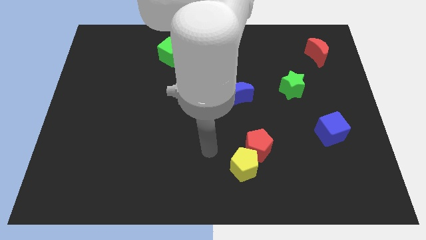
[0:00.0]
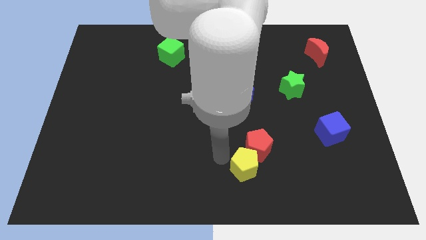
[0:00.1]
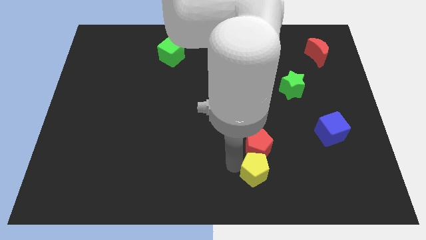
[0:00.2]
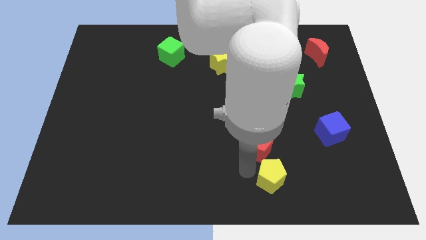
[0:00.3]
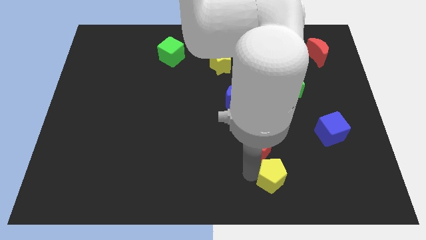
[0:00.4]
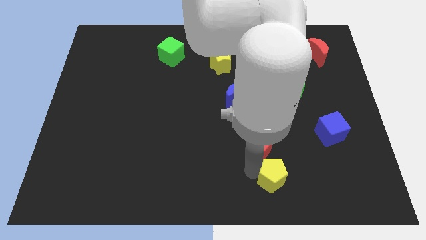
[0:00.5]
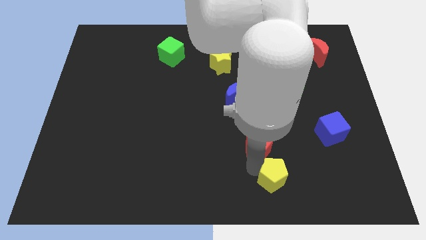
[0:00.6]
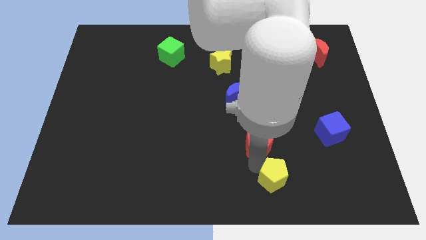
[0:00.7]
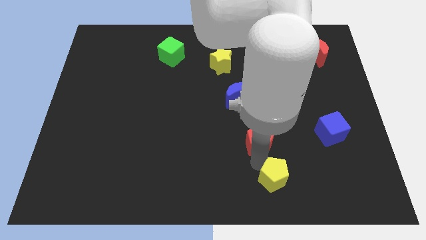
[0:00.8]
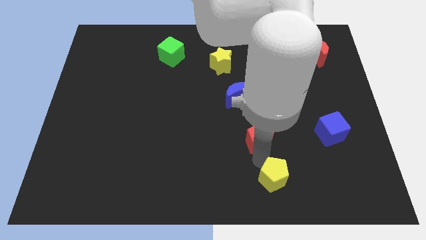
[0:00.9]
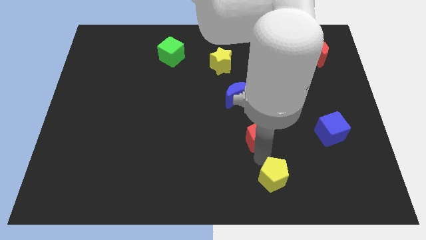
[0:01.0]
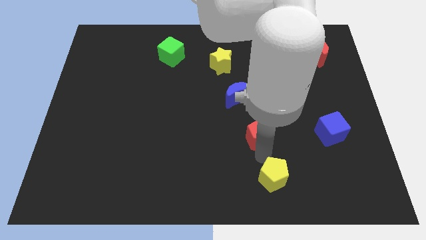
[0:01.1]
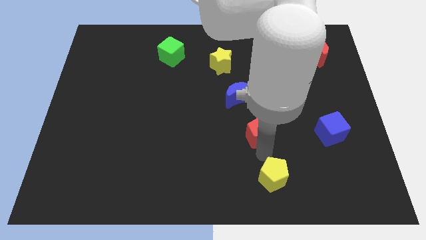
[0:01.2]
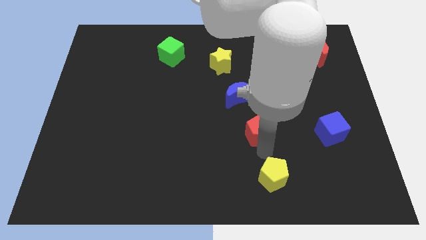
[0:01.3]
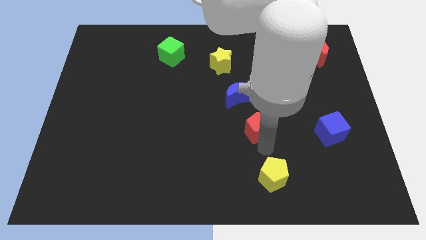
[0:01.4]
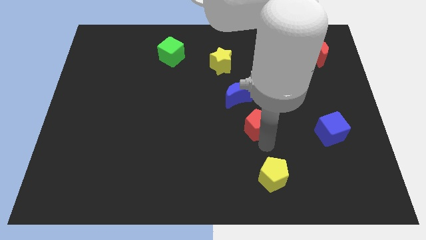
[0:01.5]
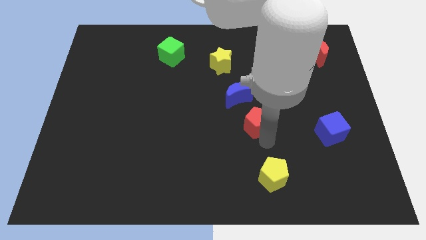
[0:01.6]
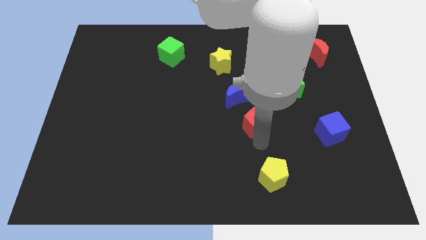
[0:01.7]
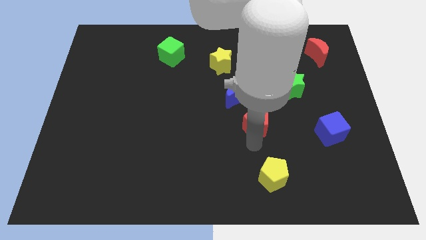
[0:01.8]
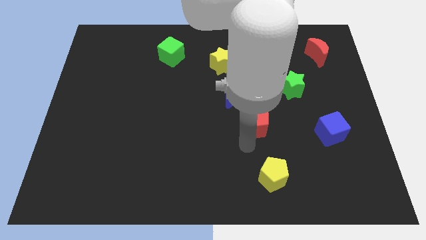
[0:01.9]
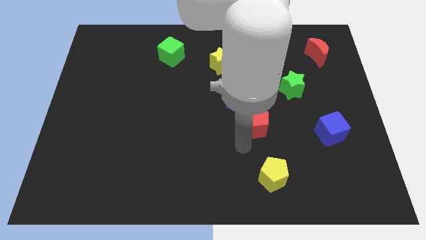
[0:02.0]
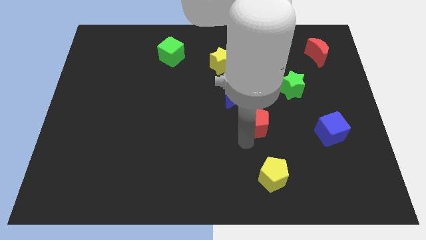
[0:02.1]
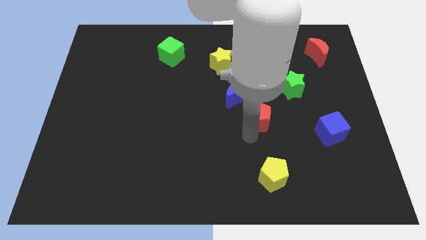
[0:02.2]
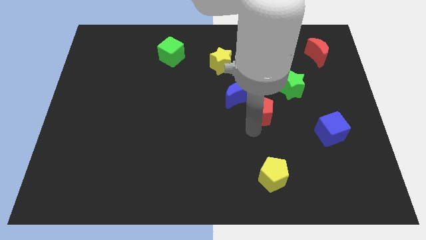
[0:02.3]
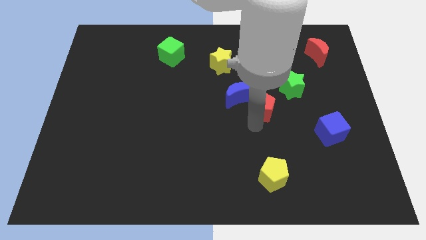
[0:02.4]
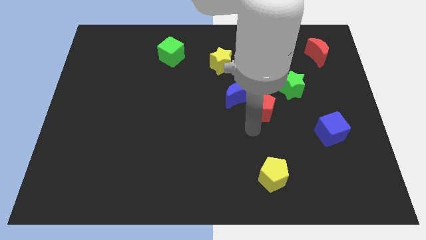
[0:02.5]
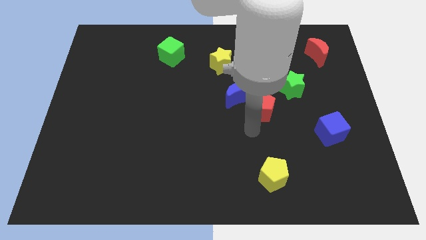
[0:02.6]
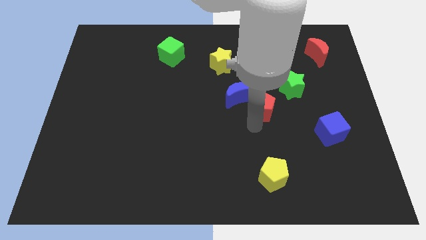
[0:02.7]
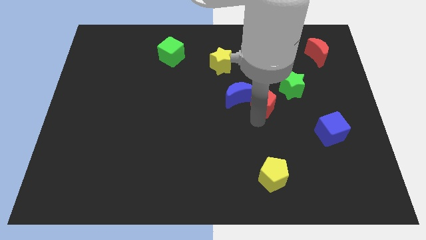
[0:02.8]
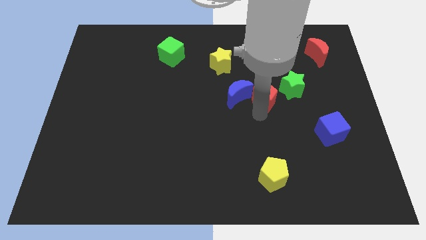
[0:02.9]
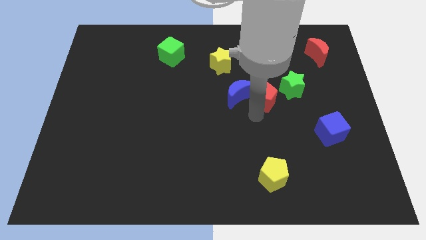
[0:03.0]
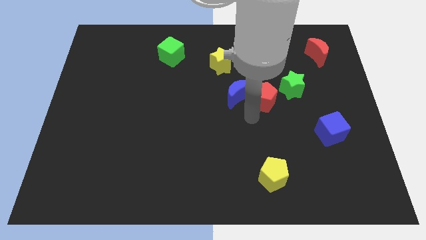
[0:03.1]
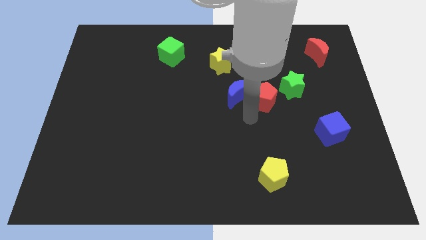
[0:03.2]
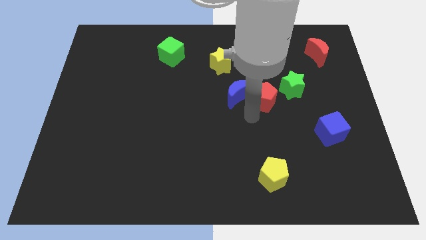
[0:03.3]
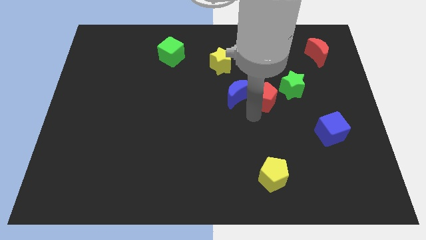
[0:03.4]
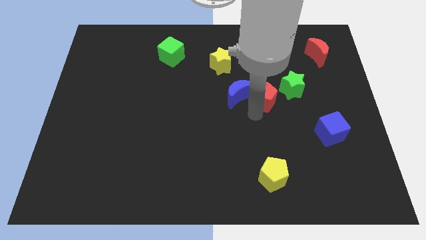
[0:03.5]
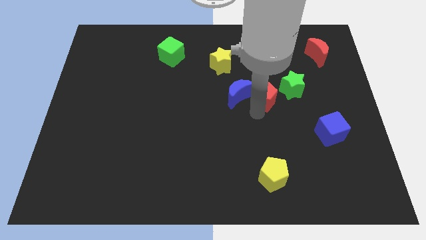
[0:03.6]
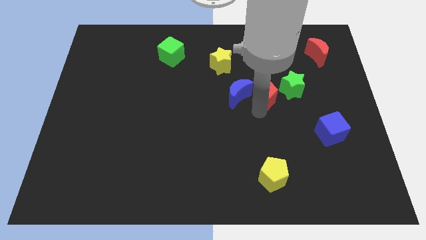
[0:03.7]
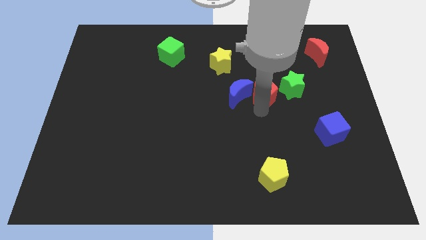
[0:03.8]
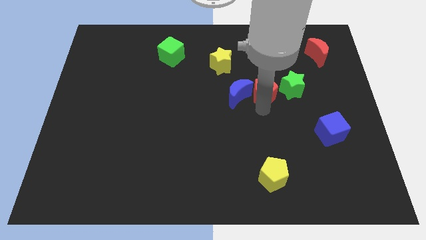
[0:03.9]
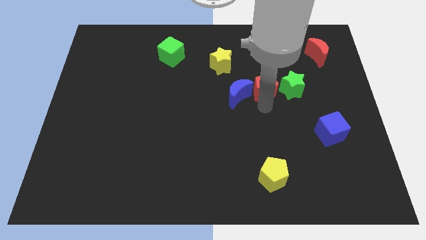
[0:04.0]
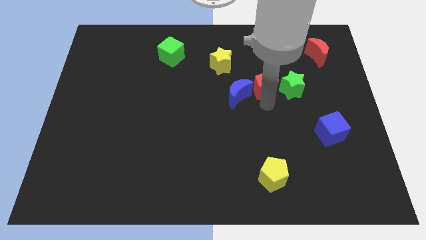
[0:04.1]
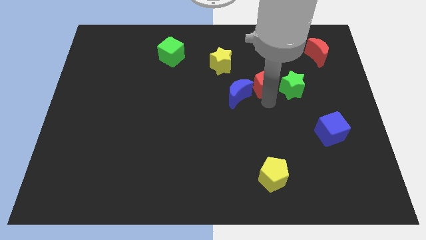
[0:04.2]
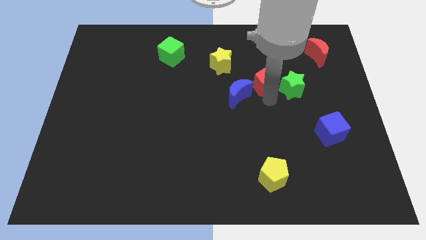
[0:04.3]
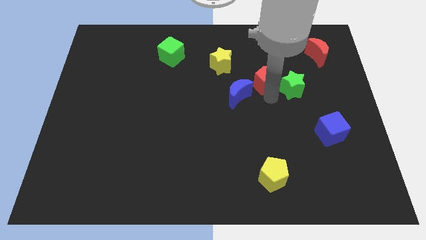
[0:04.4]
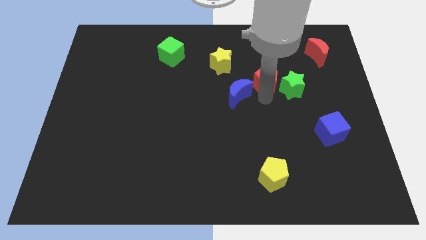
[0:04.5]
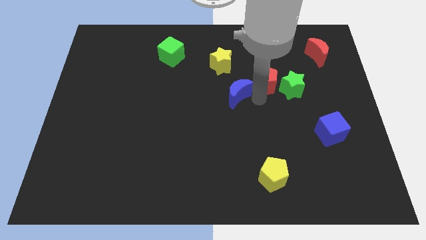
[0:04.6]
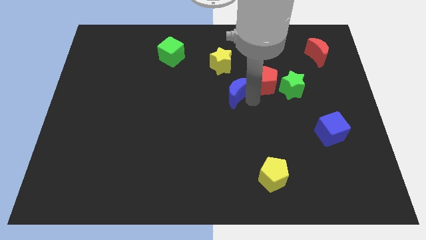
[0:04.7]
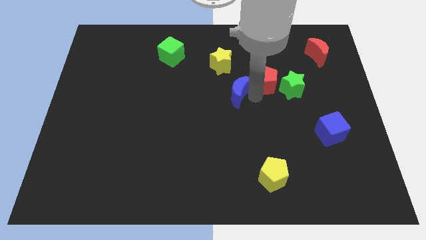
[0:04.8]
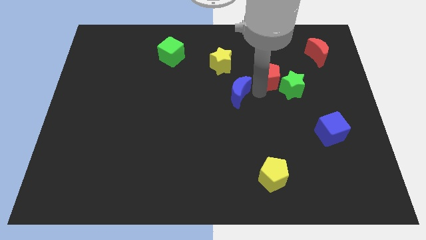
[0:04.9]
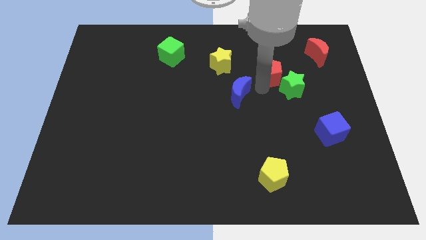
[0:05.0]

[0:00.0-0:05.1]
push the red pentagon above the green star

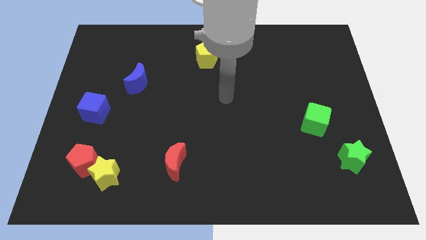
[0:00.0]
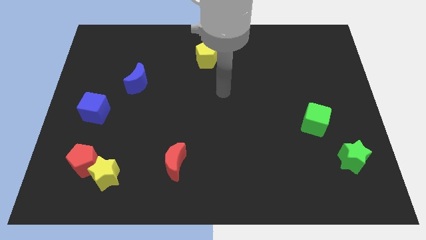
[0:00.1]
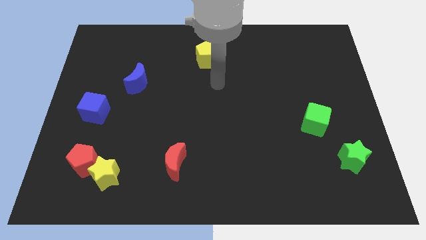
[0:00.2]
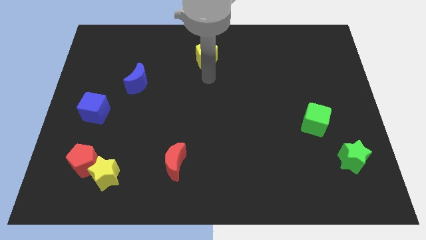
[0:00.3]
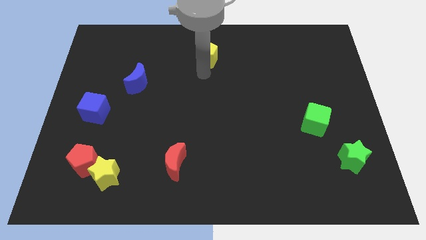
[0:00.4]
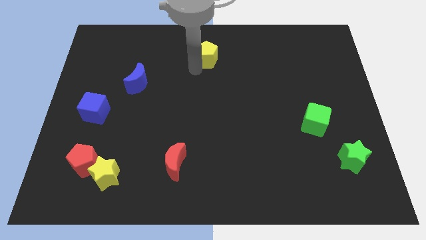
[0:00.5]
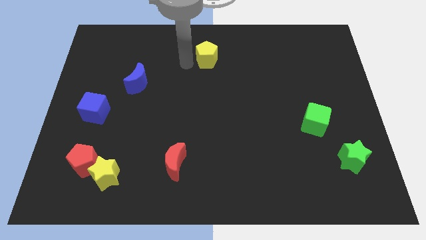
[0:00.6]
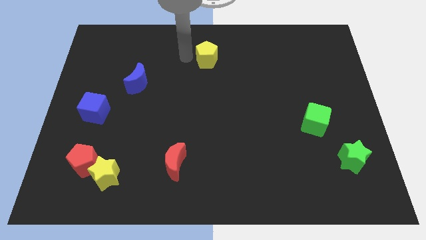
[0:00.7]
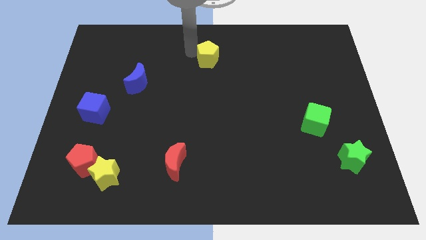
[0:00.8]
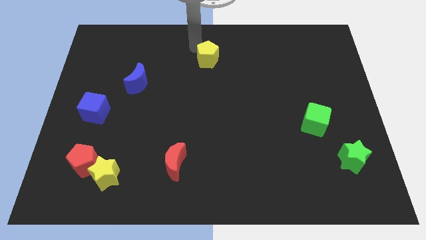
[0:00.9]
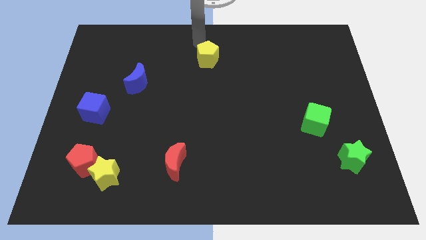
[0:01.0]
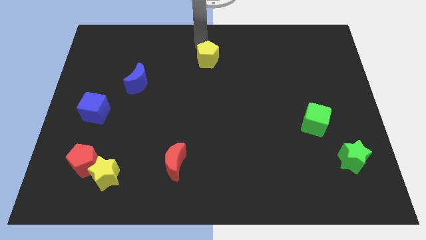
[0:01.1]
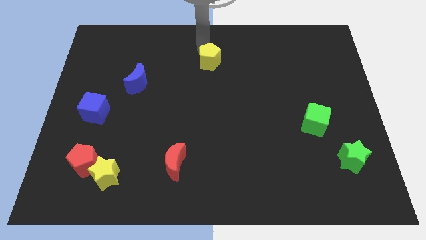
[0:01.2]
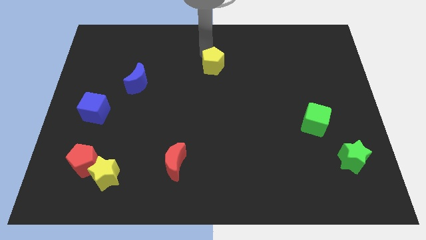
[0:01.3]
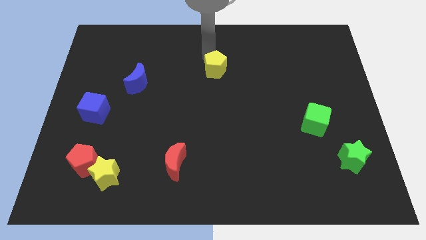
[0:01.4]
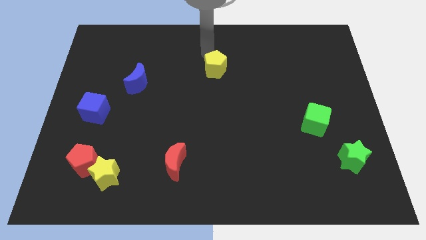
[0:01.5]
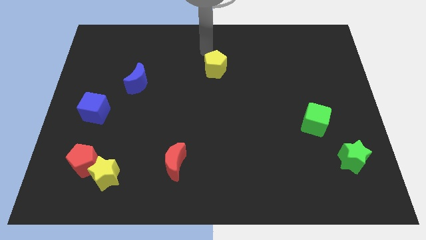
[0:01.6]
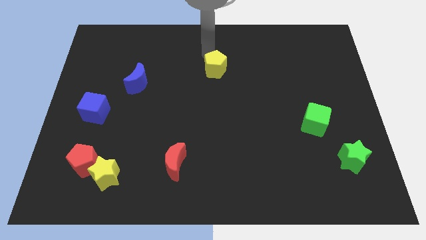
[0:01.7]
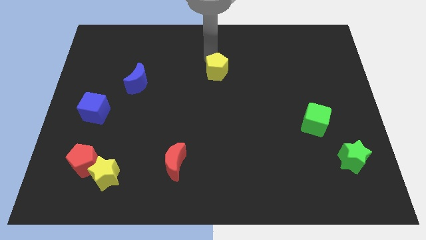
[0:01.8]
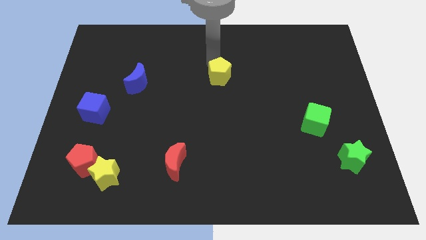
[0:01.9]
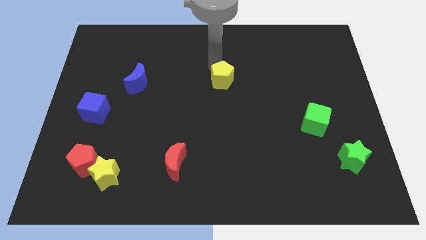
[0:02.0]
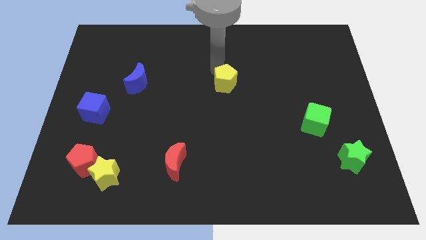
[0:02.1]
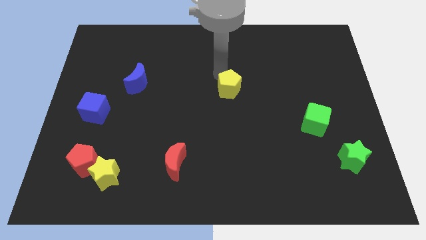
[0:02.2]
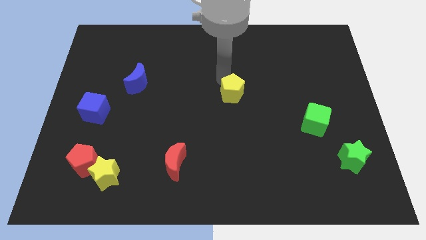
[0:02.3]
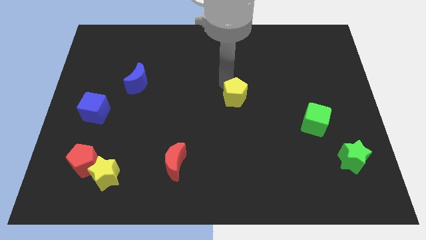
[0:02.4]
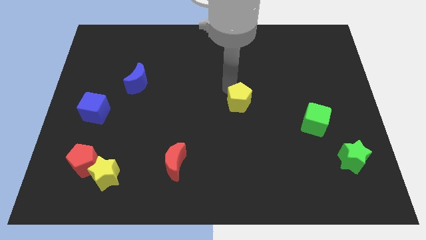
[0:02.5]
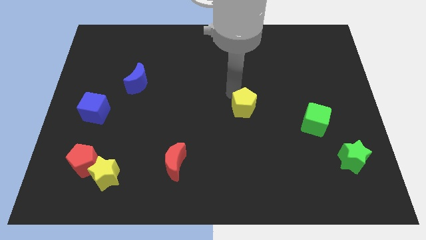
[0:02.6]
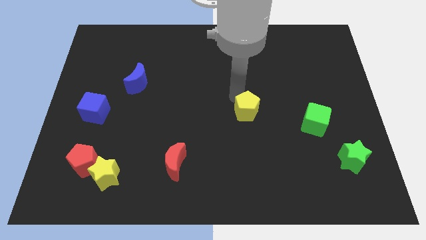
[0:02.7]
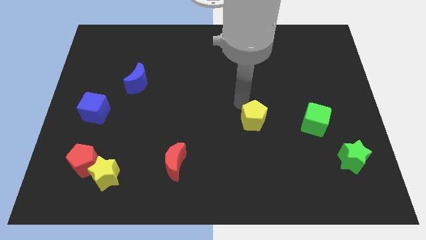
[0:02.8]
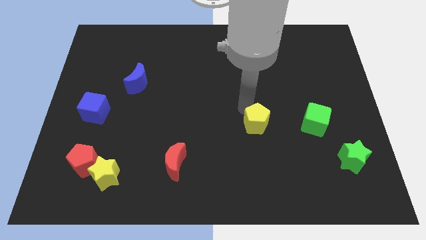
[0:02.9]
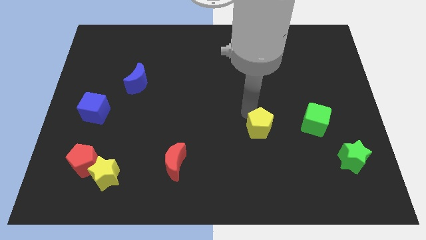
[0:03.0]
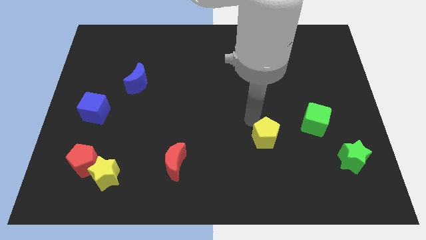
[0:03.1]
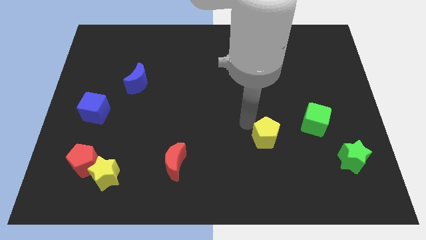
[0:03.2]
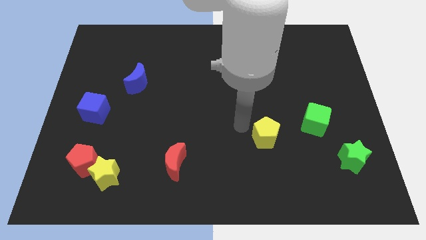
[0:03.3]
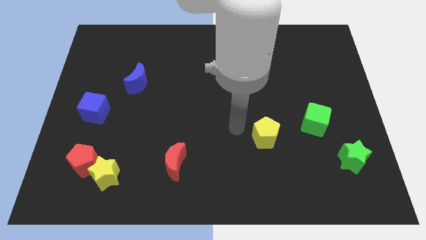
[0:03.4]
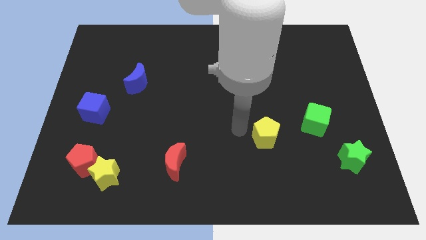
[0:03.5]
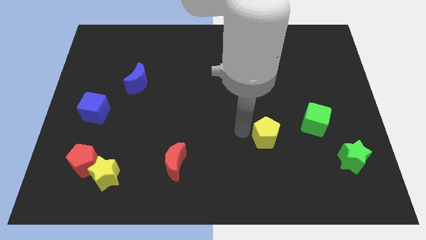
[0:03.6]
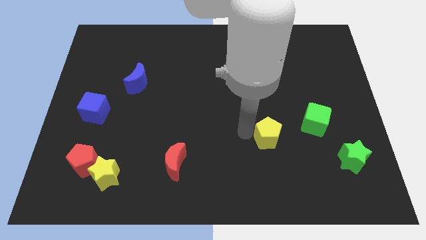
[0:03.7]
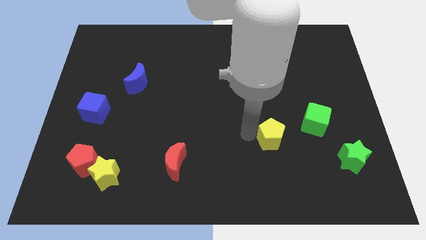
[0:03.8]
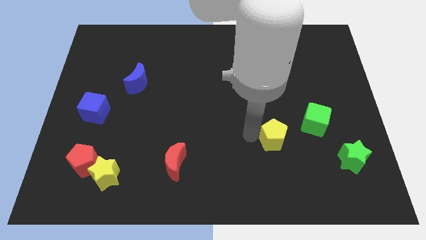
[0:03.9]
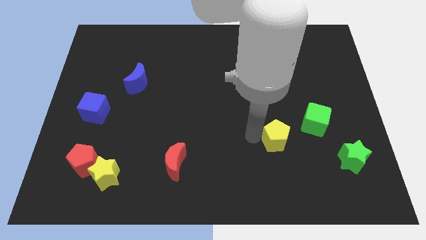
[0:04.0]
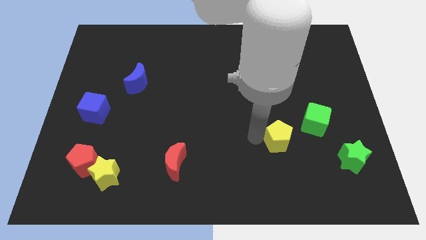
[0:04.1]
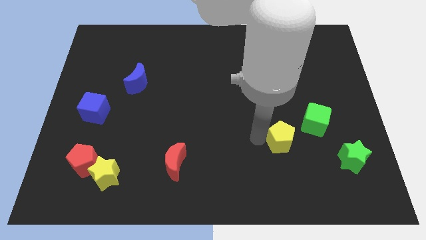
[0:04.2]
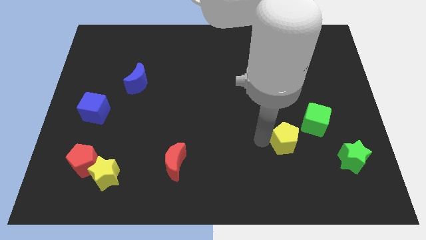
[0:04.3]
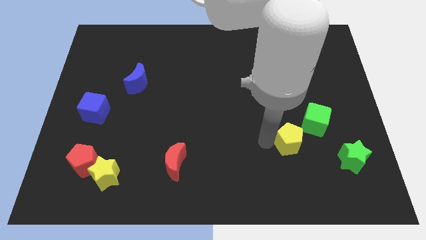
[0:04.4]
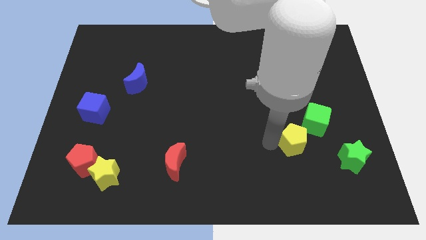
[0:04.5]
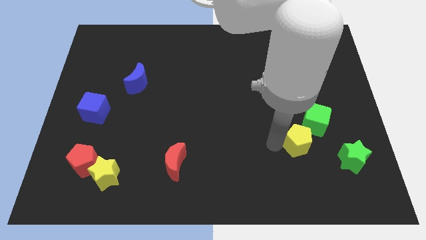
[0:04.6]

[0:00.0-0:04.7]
push the yellow pentagon below the green cube
